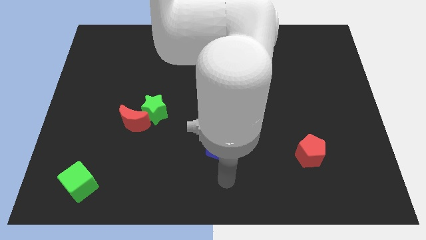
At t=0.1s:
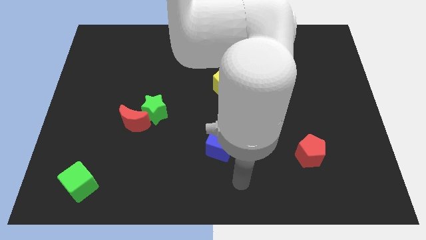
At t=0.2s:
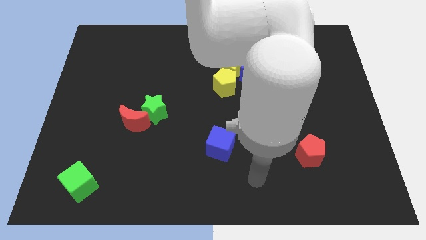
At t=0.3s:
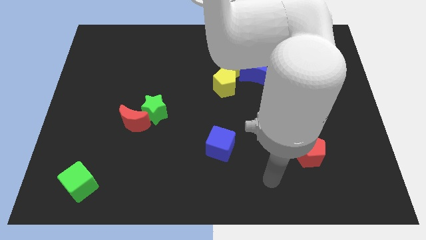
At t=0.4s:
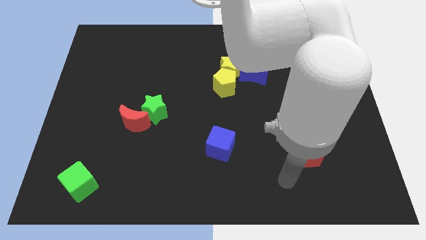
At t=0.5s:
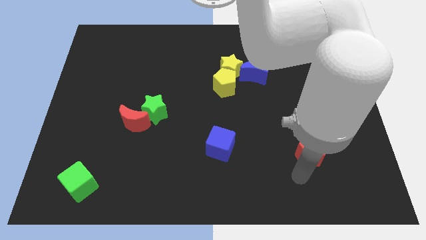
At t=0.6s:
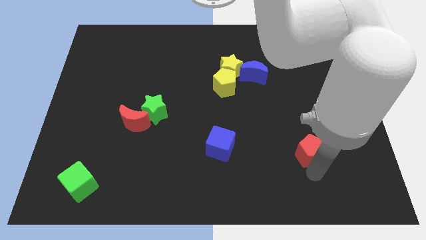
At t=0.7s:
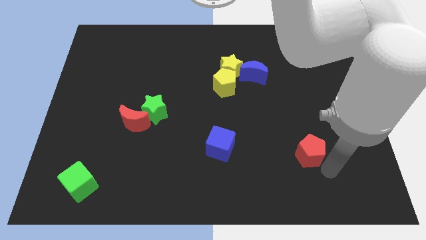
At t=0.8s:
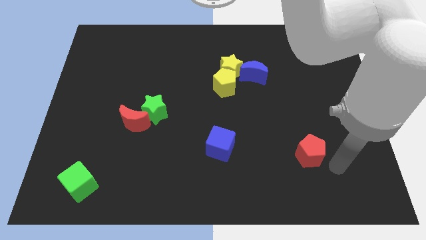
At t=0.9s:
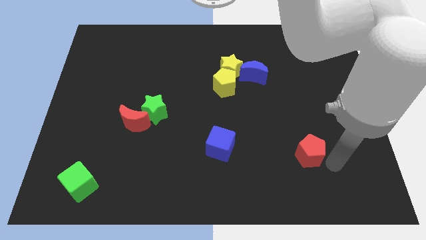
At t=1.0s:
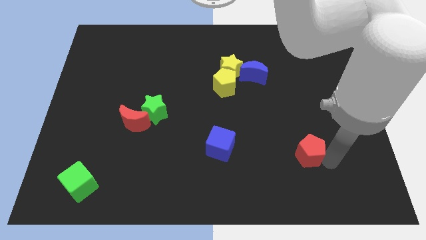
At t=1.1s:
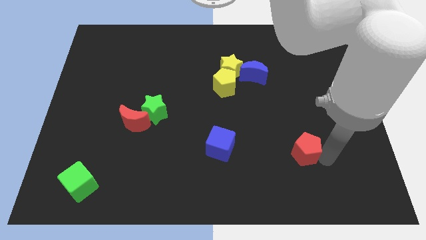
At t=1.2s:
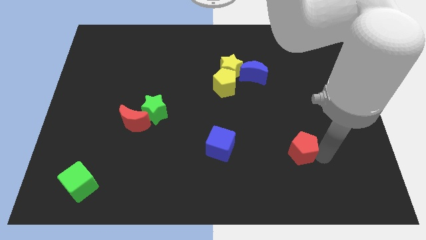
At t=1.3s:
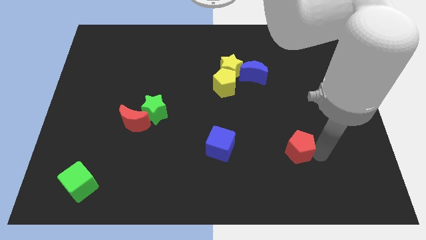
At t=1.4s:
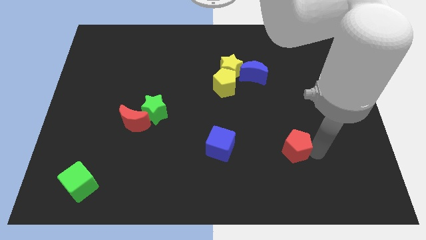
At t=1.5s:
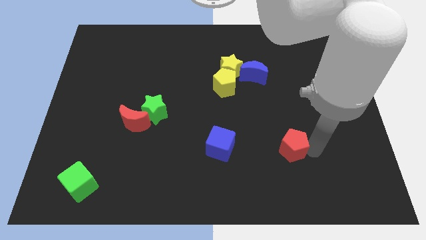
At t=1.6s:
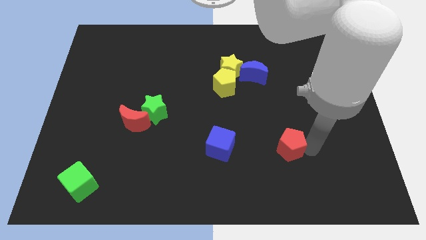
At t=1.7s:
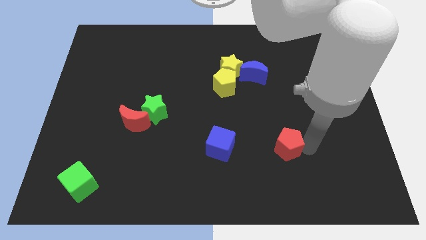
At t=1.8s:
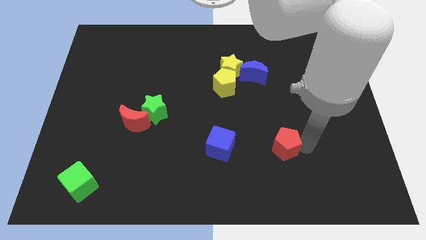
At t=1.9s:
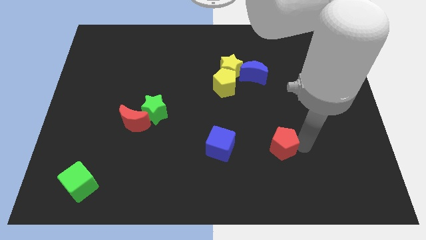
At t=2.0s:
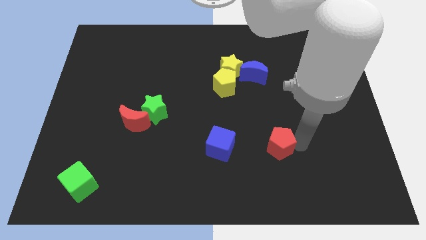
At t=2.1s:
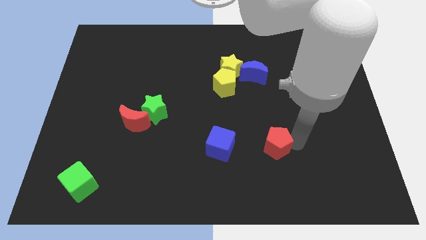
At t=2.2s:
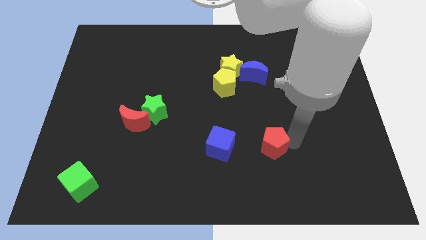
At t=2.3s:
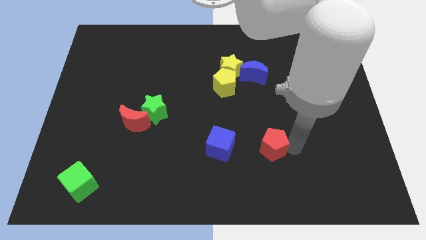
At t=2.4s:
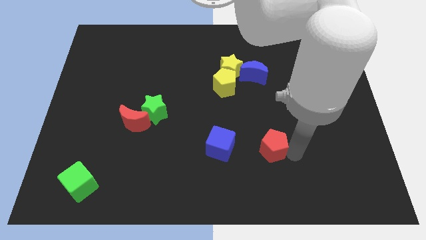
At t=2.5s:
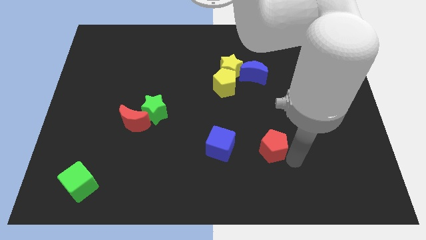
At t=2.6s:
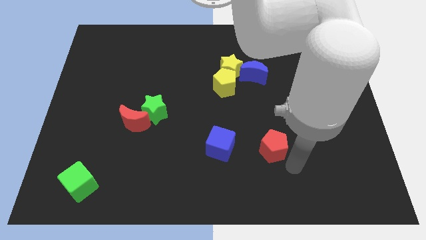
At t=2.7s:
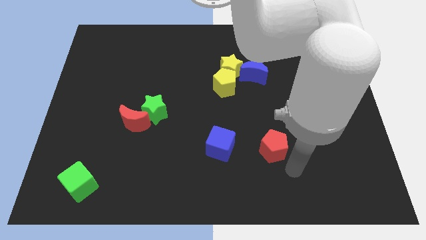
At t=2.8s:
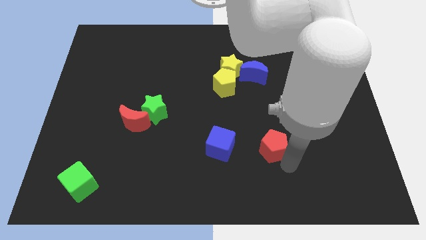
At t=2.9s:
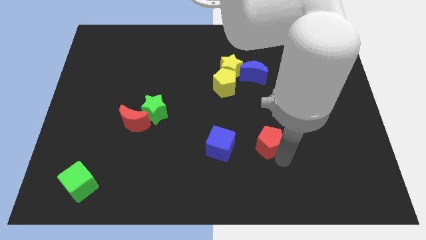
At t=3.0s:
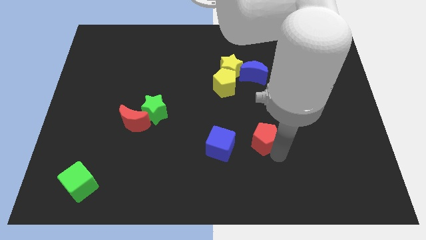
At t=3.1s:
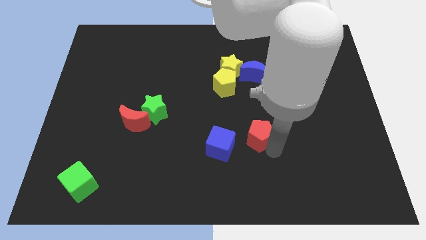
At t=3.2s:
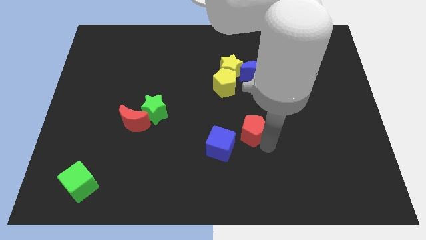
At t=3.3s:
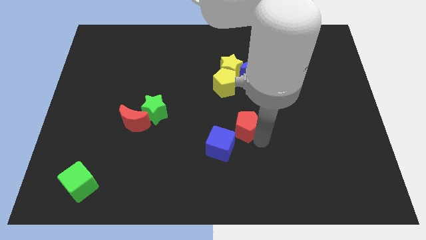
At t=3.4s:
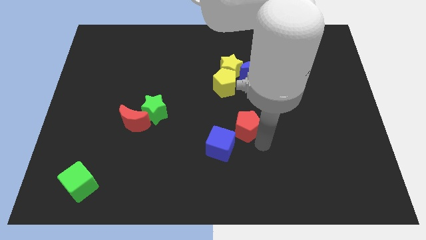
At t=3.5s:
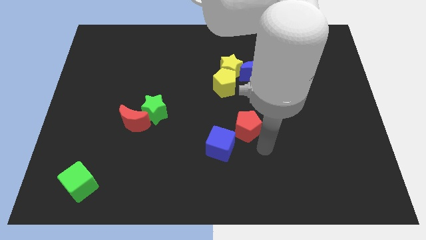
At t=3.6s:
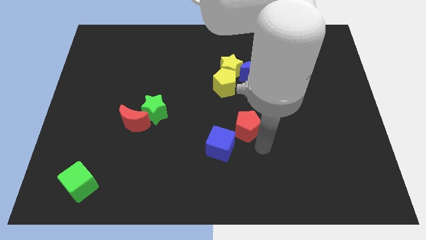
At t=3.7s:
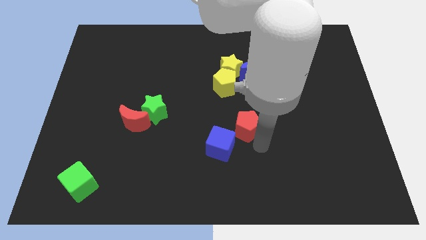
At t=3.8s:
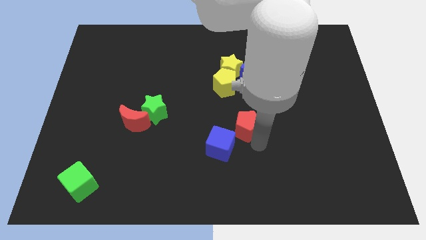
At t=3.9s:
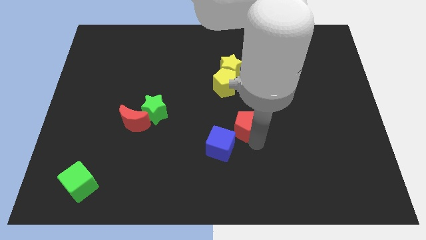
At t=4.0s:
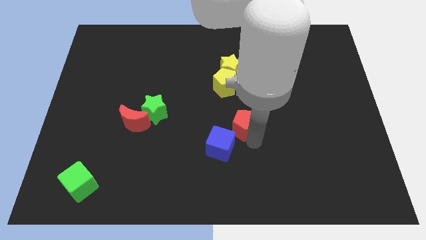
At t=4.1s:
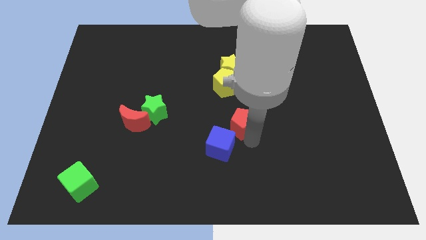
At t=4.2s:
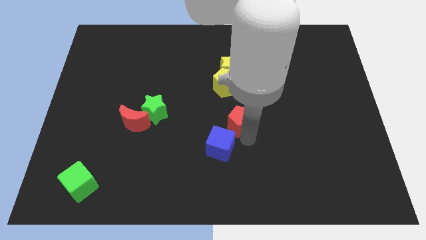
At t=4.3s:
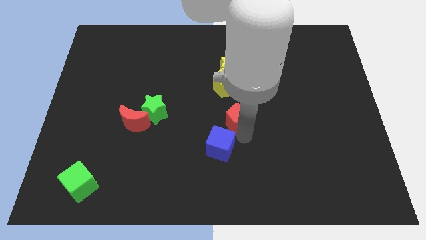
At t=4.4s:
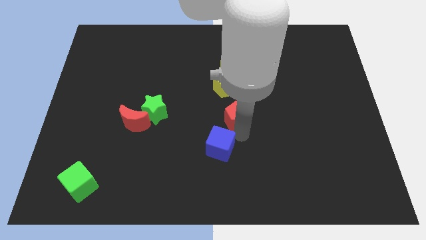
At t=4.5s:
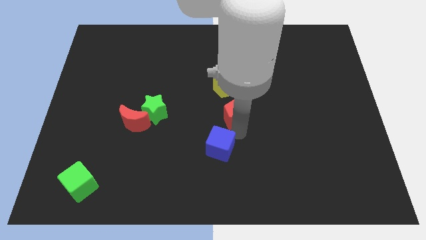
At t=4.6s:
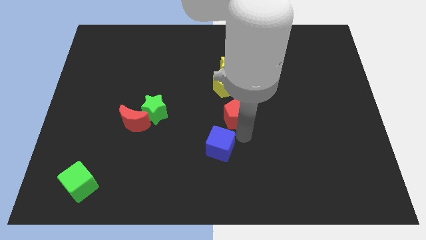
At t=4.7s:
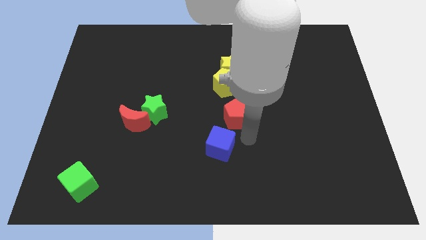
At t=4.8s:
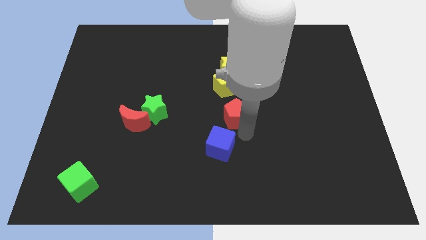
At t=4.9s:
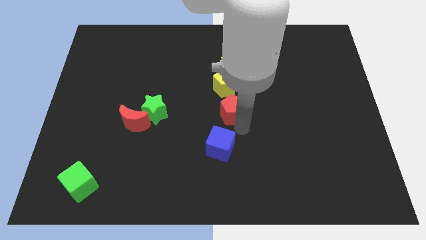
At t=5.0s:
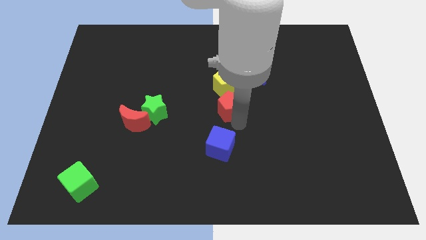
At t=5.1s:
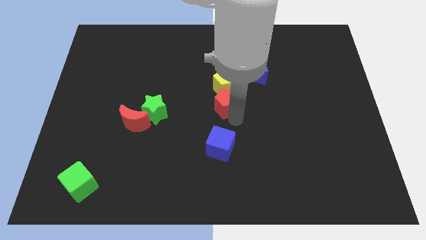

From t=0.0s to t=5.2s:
move the red pentagon to the bottom left of the blue moon
